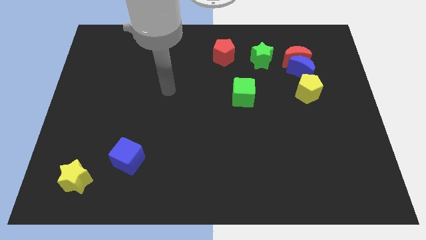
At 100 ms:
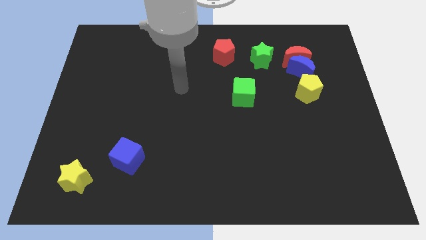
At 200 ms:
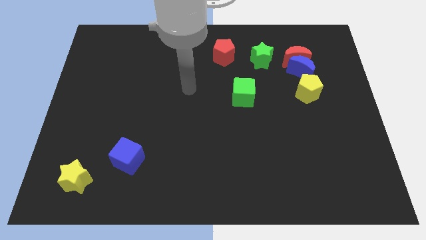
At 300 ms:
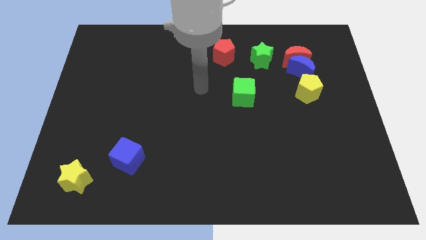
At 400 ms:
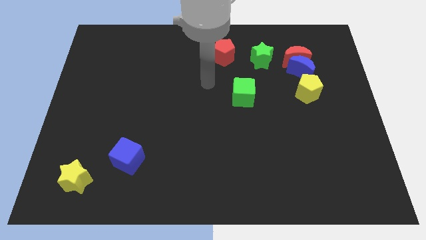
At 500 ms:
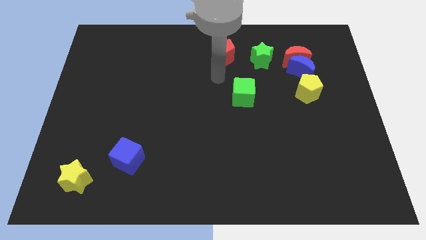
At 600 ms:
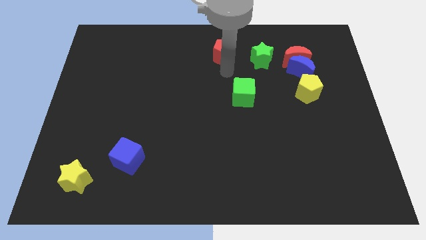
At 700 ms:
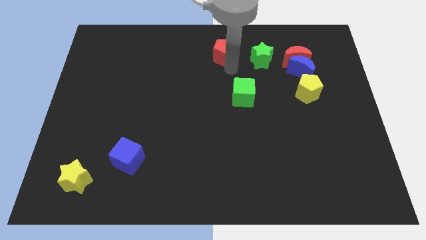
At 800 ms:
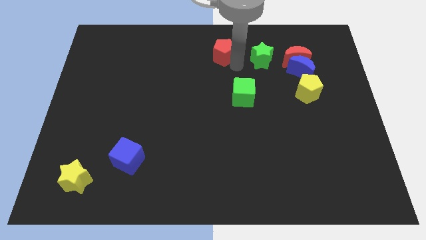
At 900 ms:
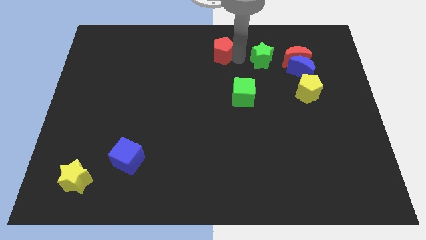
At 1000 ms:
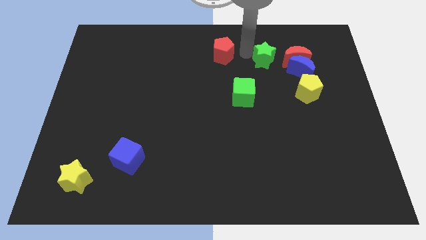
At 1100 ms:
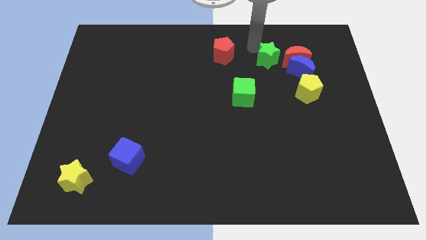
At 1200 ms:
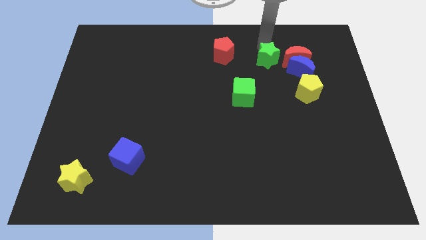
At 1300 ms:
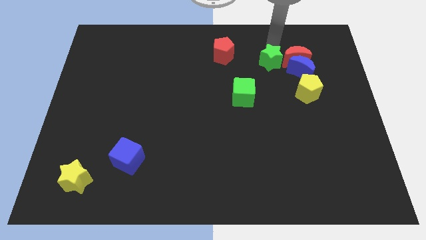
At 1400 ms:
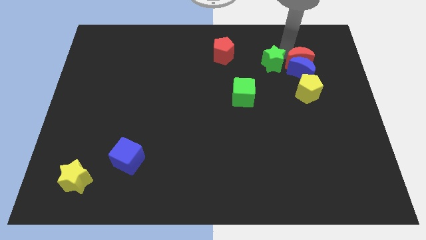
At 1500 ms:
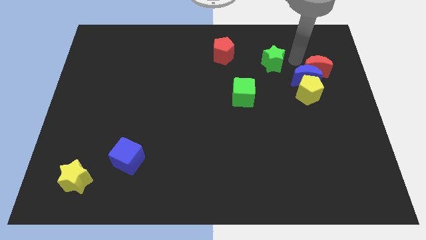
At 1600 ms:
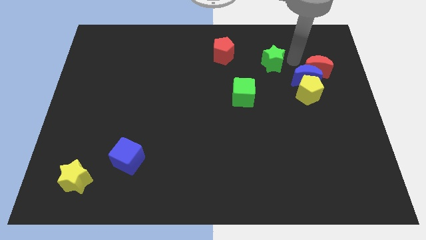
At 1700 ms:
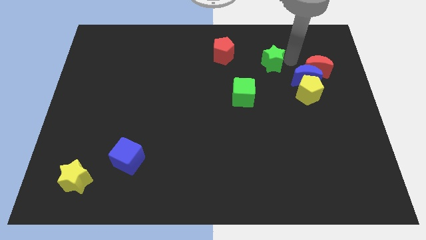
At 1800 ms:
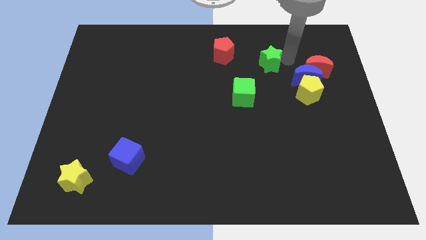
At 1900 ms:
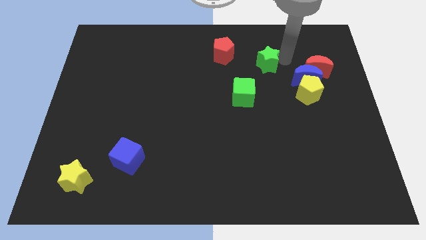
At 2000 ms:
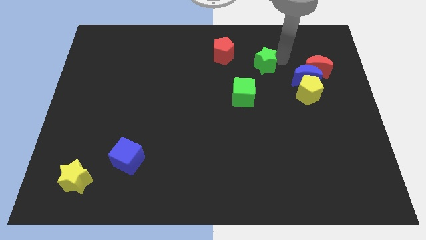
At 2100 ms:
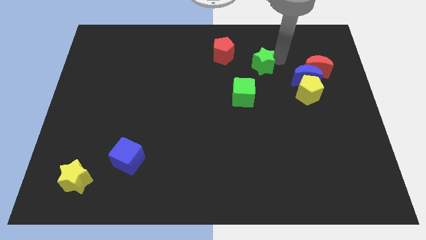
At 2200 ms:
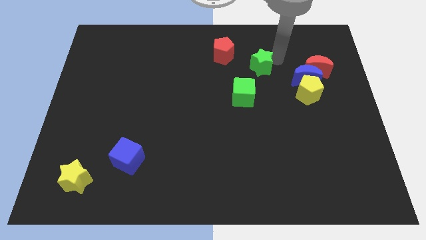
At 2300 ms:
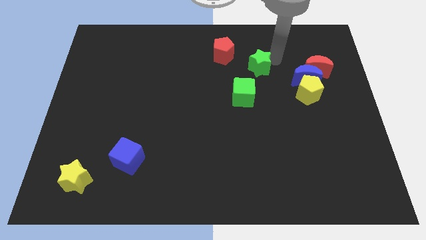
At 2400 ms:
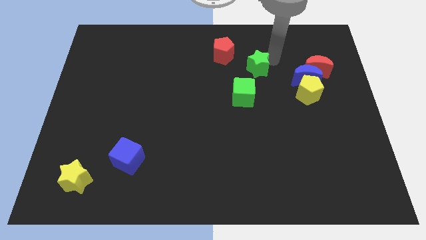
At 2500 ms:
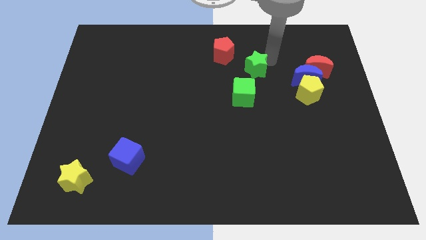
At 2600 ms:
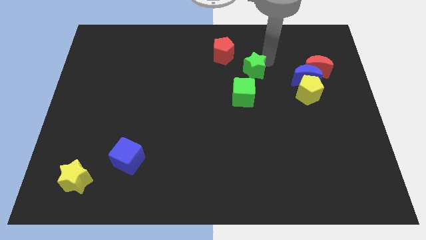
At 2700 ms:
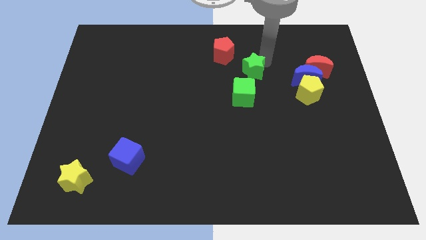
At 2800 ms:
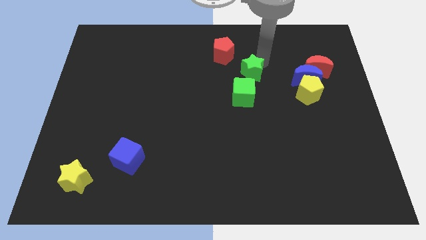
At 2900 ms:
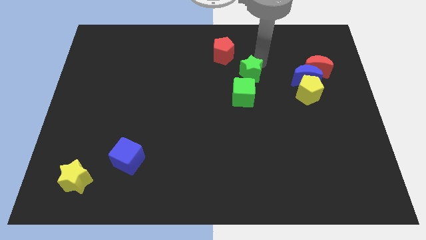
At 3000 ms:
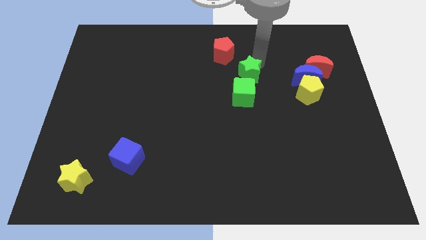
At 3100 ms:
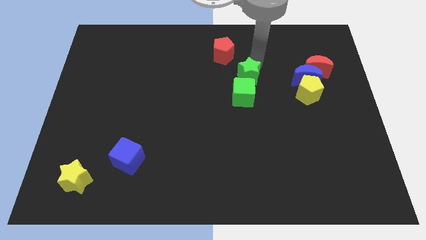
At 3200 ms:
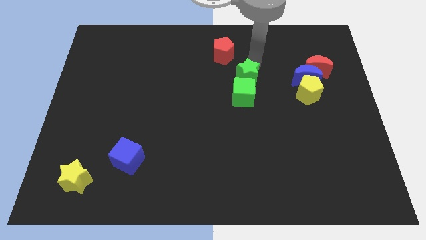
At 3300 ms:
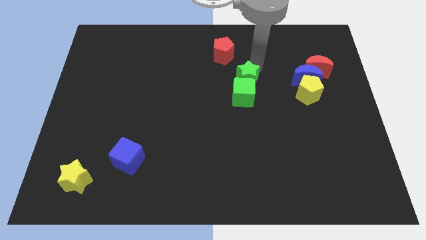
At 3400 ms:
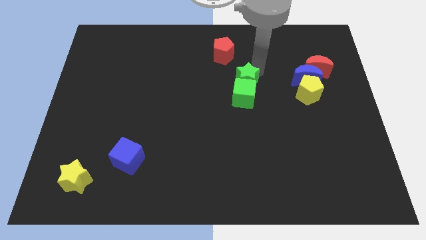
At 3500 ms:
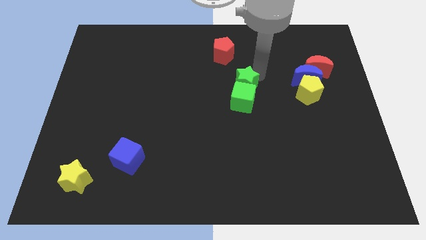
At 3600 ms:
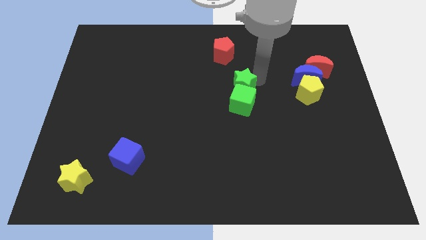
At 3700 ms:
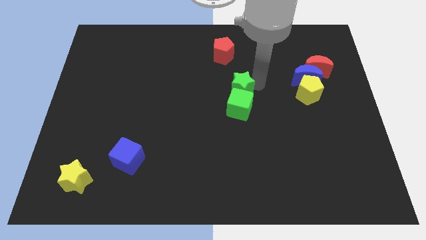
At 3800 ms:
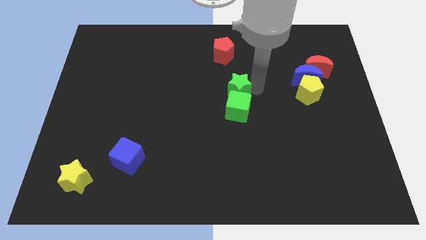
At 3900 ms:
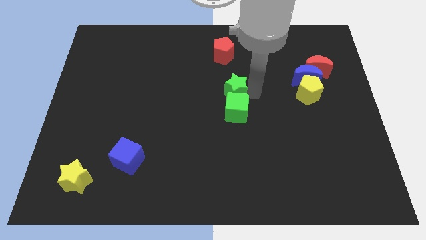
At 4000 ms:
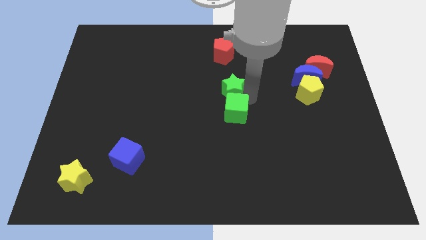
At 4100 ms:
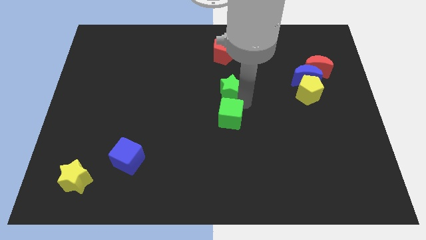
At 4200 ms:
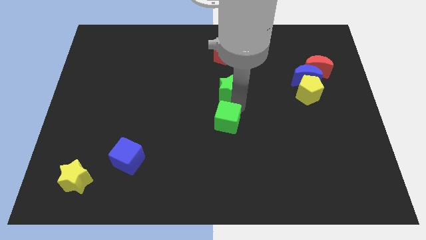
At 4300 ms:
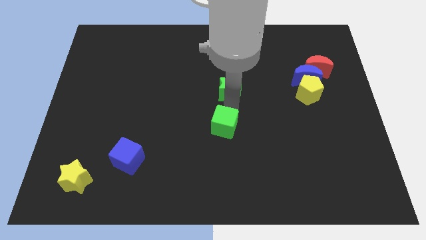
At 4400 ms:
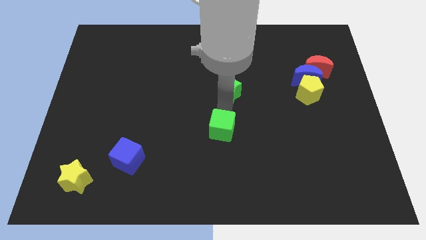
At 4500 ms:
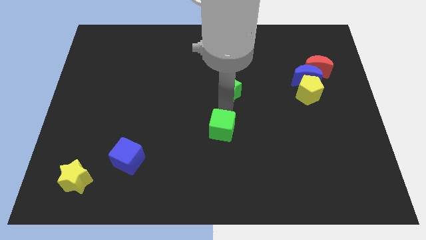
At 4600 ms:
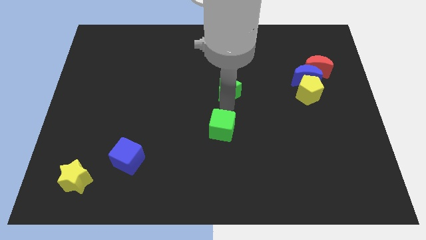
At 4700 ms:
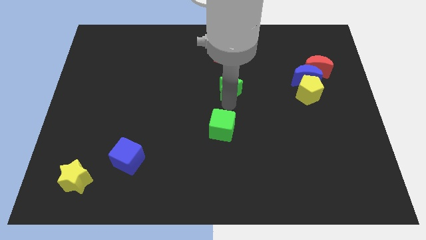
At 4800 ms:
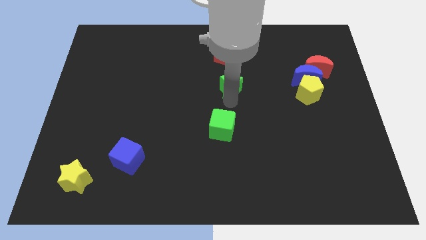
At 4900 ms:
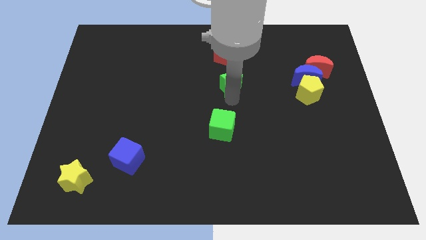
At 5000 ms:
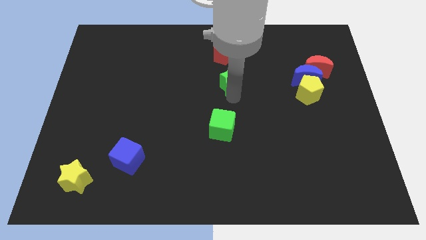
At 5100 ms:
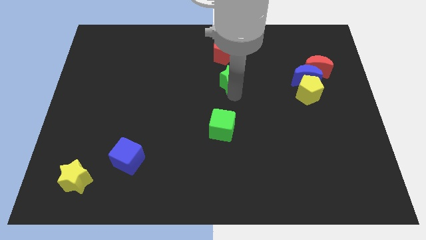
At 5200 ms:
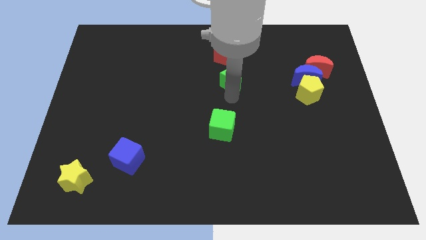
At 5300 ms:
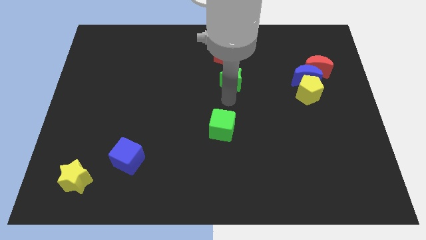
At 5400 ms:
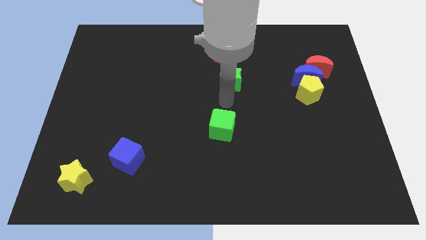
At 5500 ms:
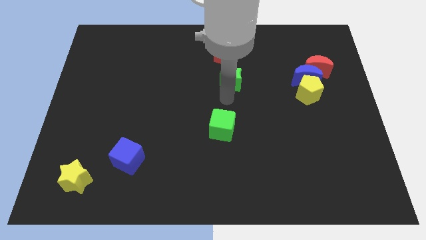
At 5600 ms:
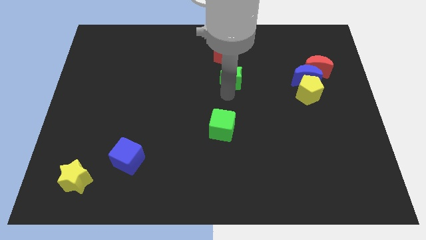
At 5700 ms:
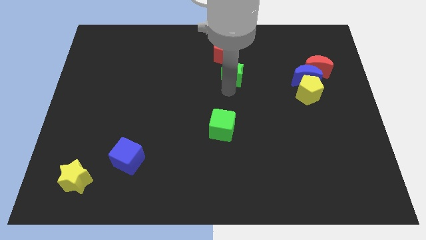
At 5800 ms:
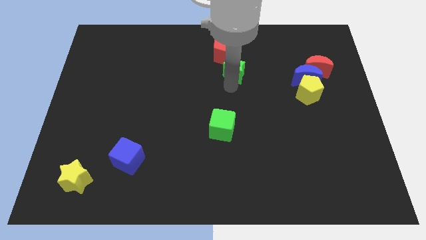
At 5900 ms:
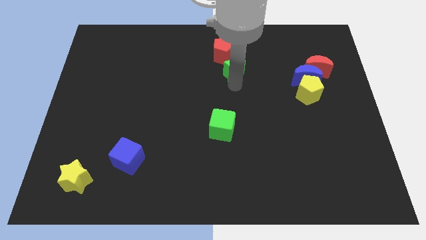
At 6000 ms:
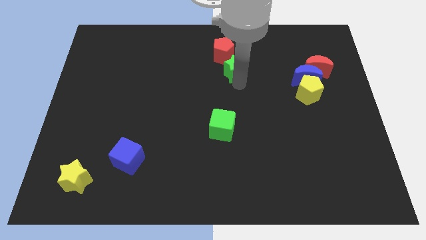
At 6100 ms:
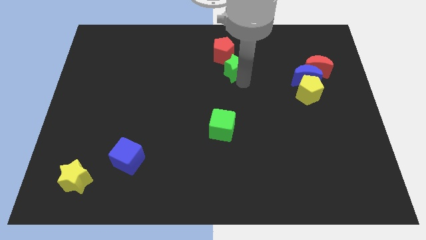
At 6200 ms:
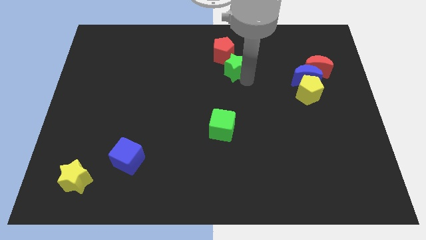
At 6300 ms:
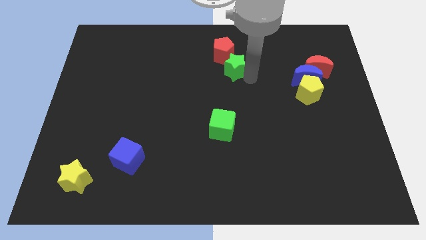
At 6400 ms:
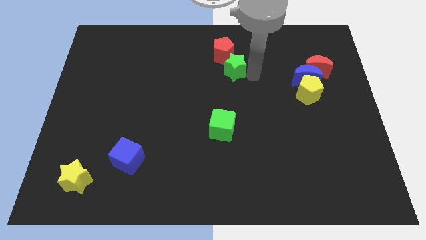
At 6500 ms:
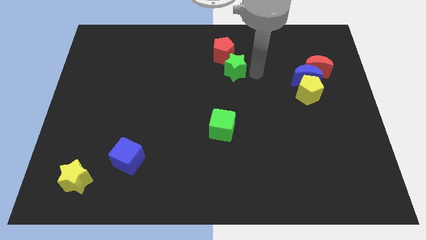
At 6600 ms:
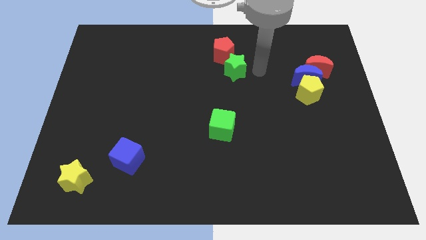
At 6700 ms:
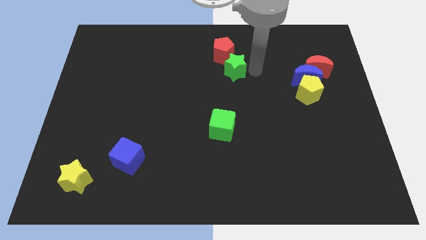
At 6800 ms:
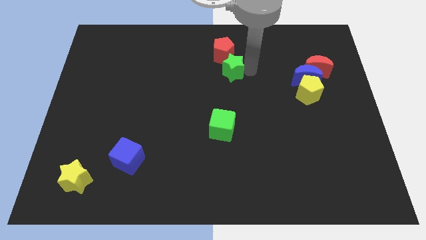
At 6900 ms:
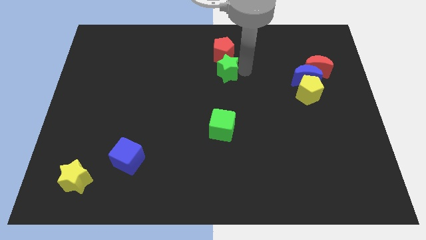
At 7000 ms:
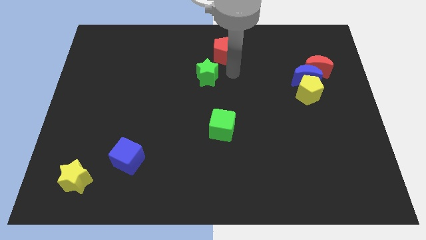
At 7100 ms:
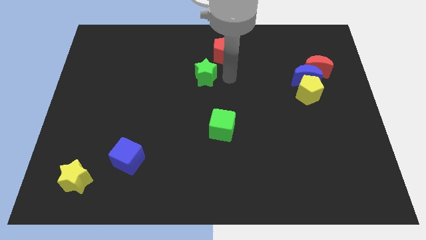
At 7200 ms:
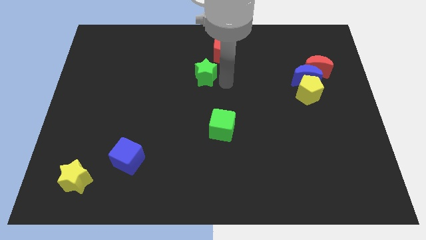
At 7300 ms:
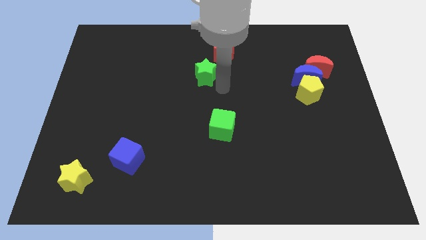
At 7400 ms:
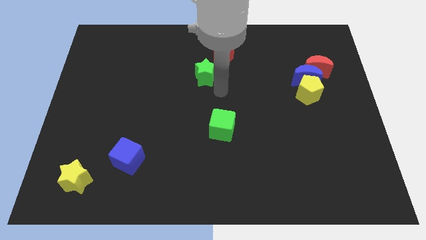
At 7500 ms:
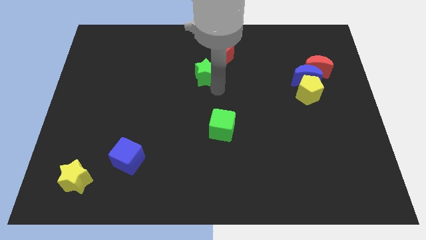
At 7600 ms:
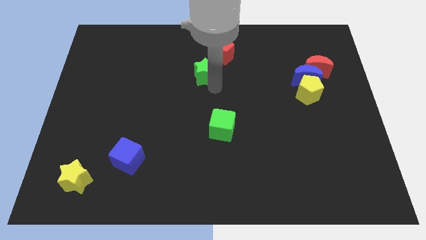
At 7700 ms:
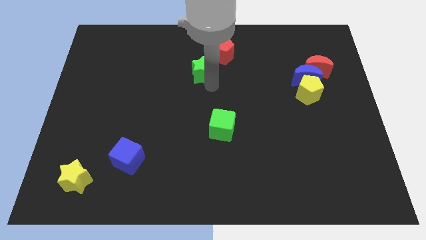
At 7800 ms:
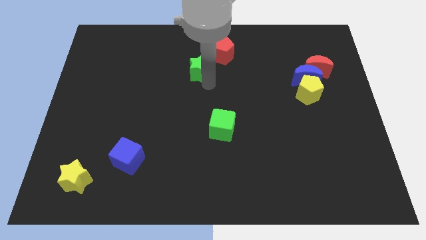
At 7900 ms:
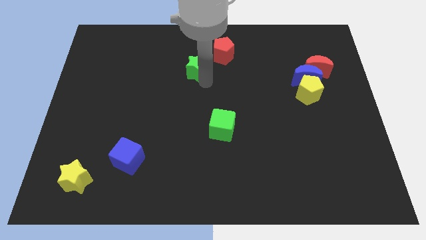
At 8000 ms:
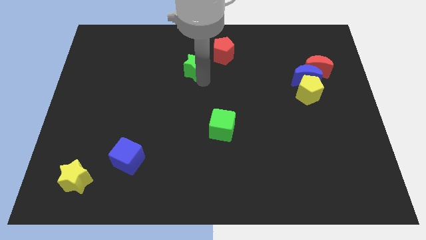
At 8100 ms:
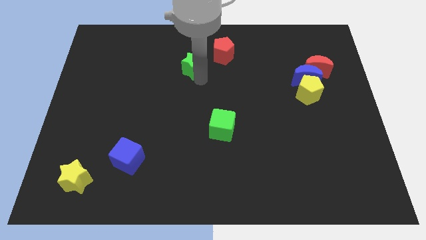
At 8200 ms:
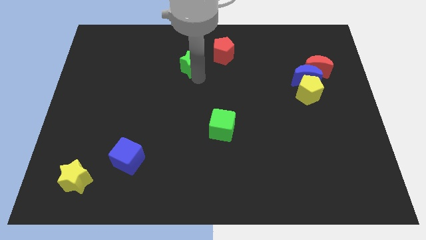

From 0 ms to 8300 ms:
put the green star just left of the red pentagon
